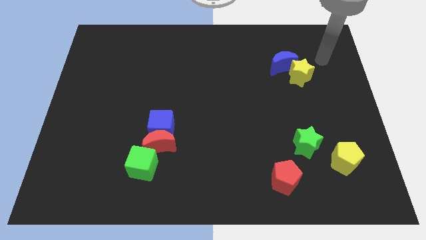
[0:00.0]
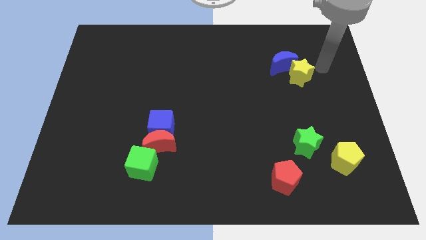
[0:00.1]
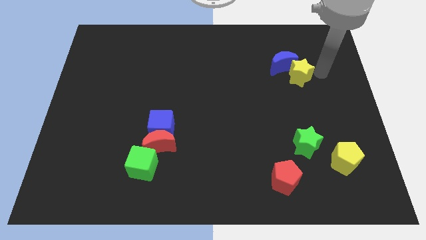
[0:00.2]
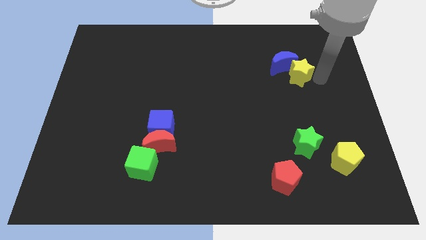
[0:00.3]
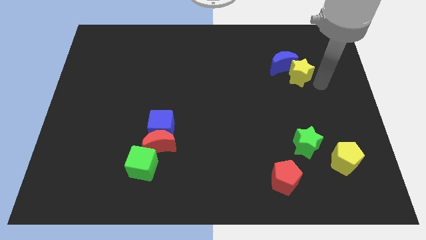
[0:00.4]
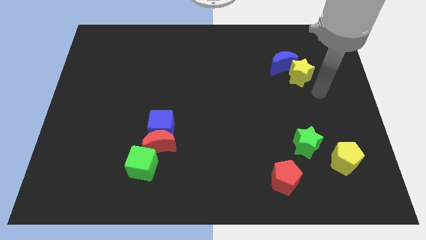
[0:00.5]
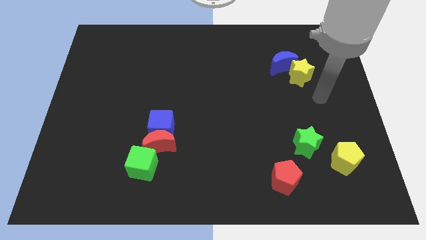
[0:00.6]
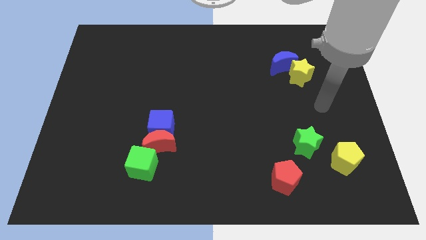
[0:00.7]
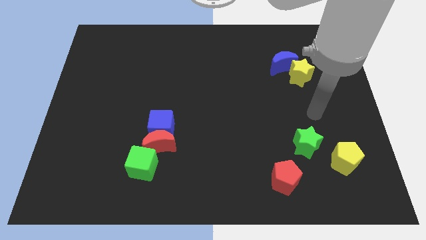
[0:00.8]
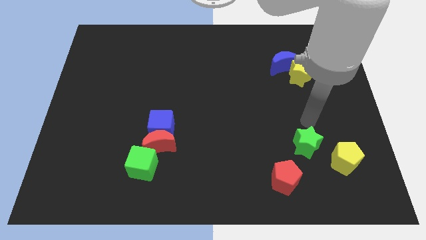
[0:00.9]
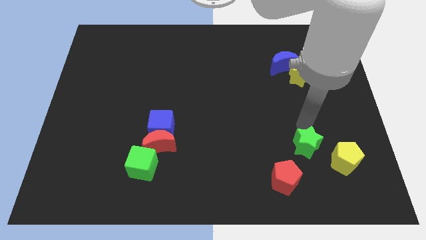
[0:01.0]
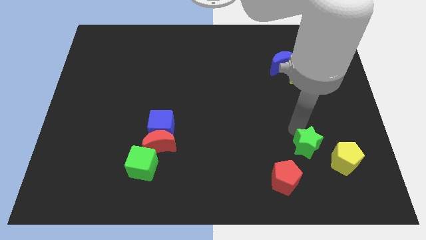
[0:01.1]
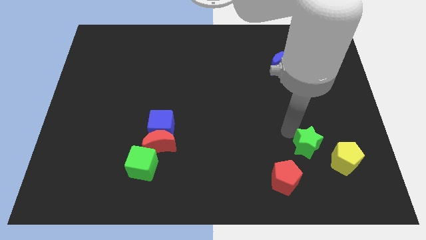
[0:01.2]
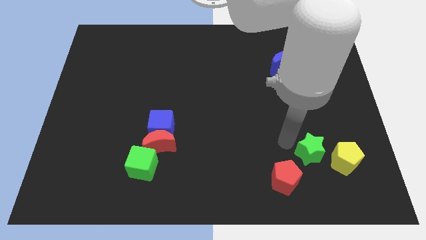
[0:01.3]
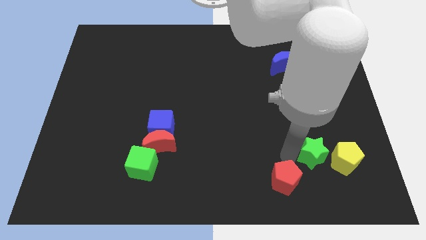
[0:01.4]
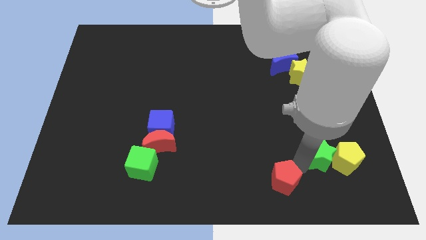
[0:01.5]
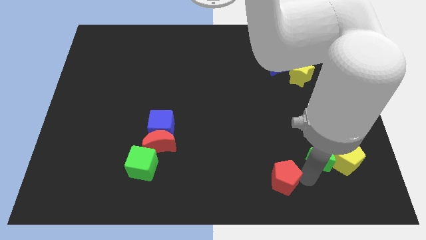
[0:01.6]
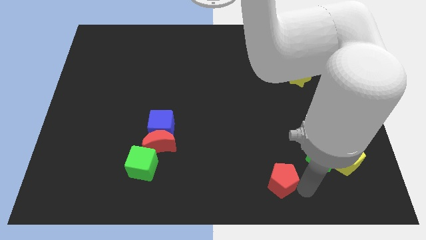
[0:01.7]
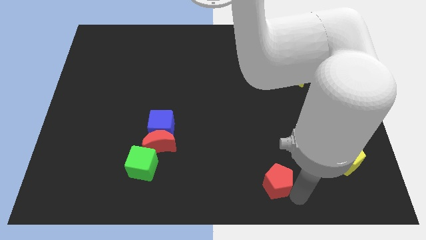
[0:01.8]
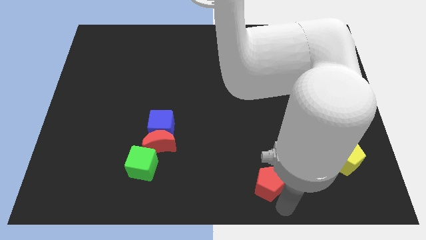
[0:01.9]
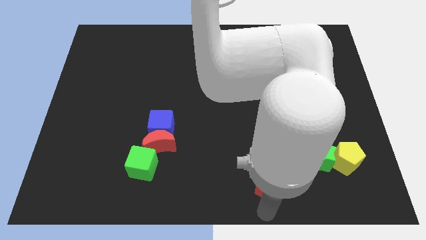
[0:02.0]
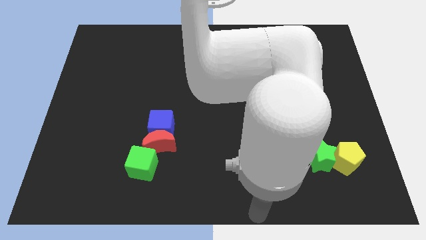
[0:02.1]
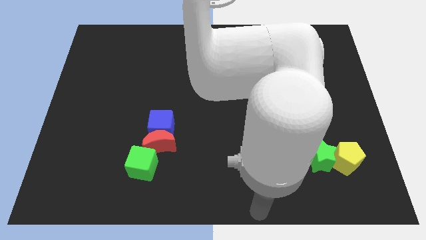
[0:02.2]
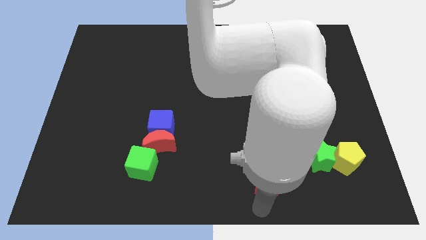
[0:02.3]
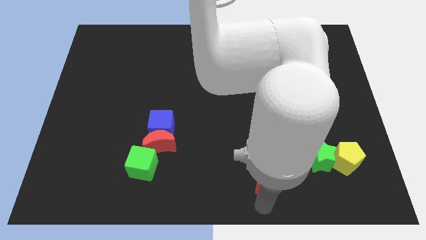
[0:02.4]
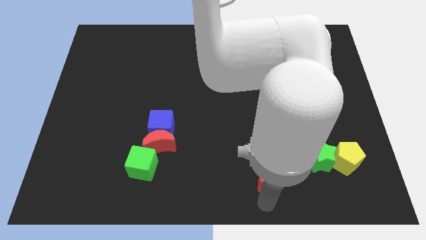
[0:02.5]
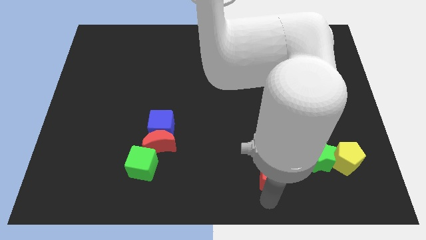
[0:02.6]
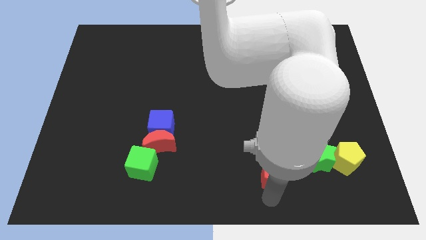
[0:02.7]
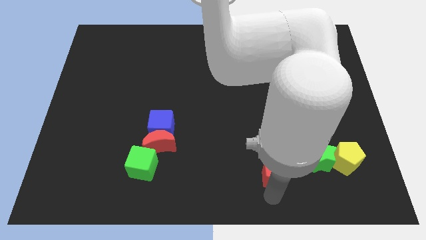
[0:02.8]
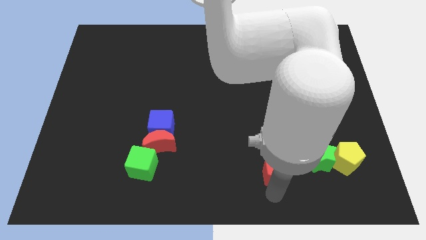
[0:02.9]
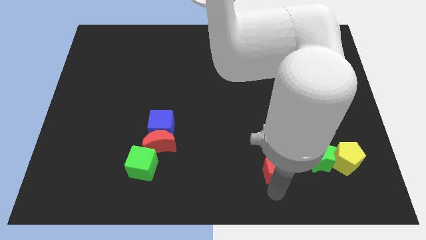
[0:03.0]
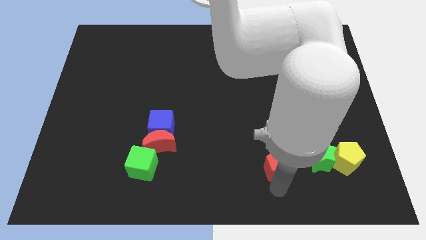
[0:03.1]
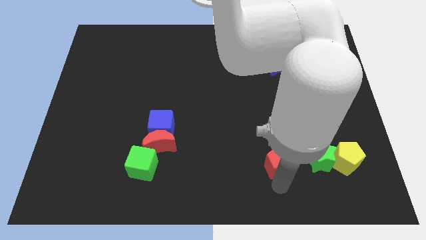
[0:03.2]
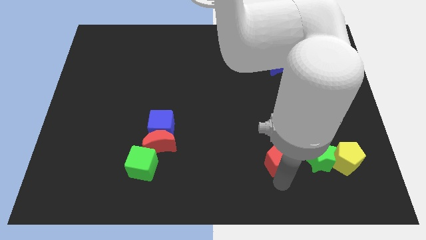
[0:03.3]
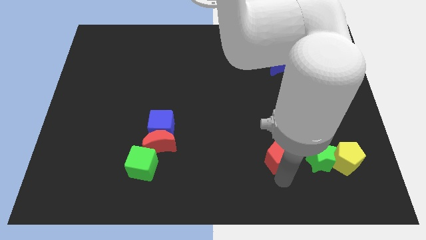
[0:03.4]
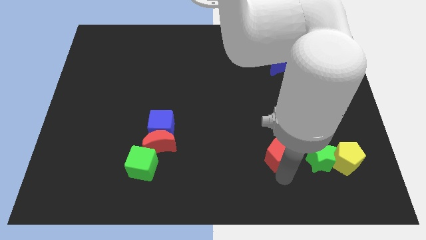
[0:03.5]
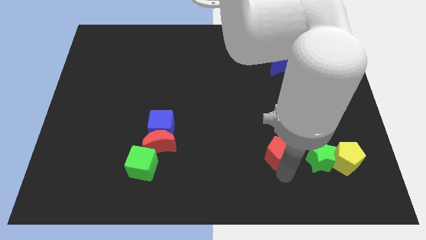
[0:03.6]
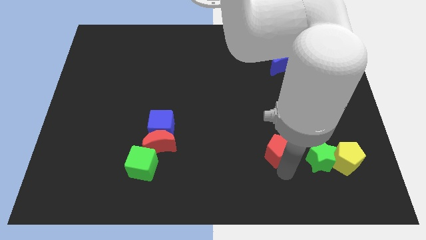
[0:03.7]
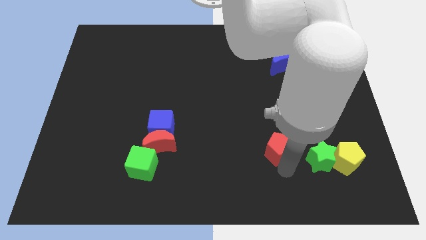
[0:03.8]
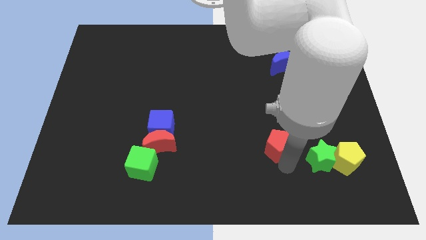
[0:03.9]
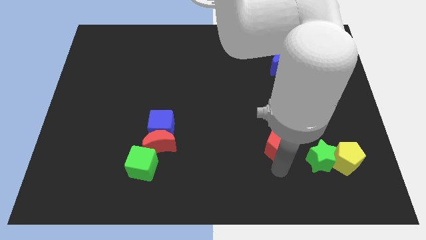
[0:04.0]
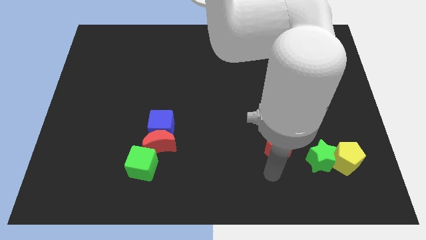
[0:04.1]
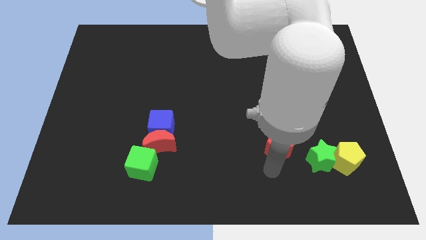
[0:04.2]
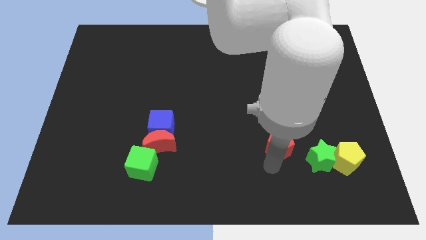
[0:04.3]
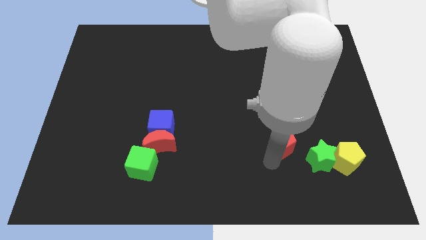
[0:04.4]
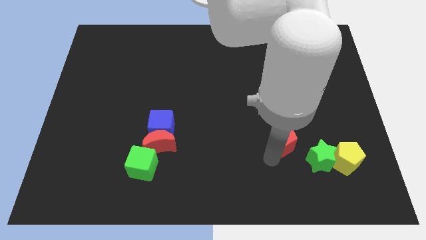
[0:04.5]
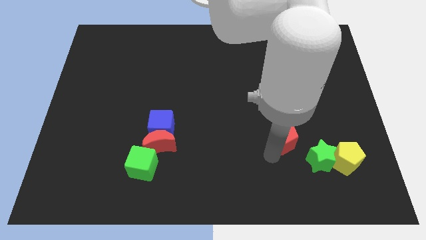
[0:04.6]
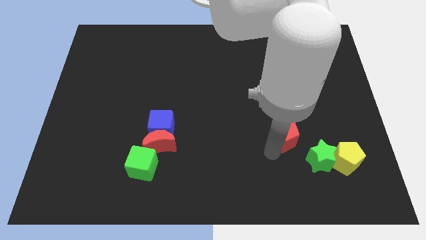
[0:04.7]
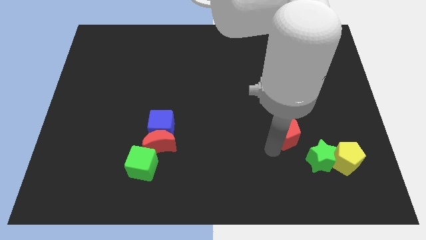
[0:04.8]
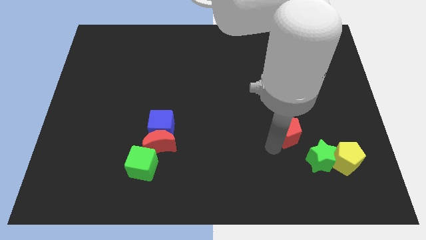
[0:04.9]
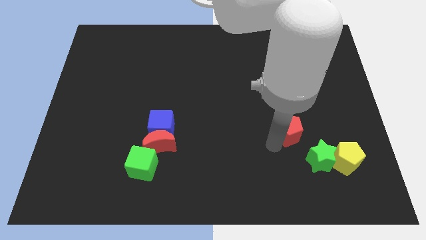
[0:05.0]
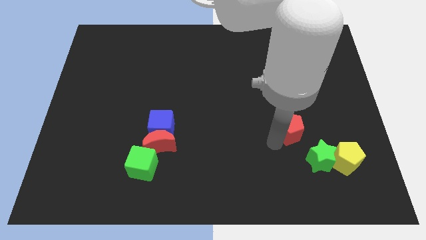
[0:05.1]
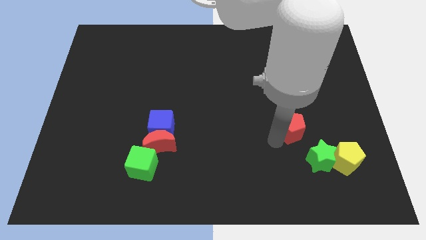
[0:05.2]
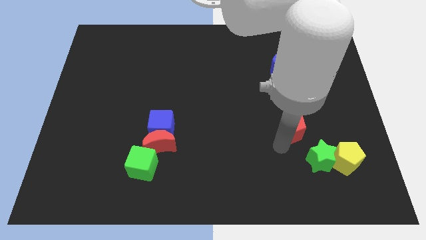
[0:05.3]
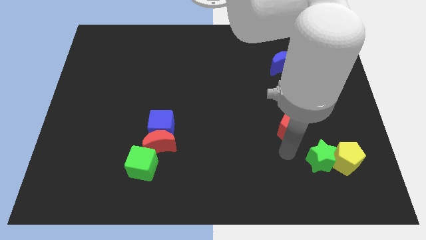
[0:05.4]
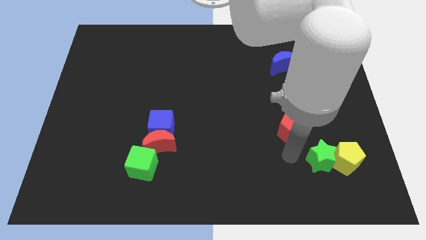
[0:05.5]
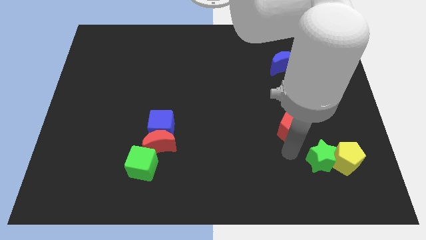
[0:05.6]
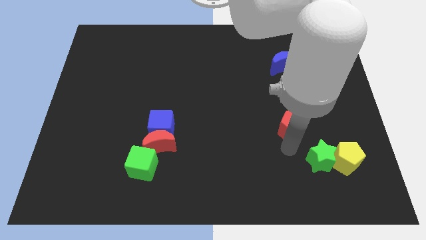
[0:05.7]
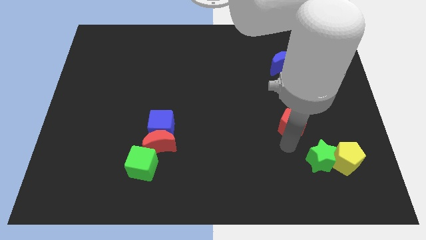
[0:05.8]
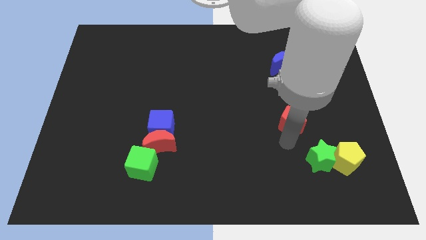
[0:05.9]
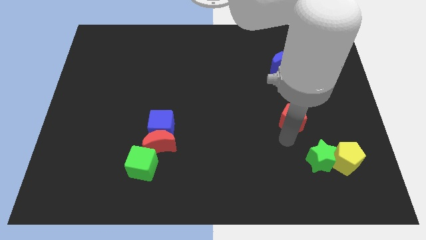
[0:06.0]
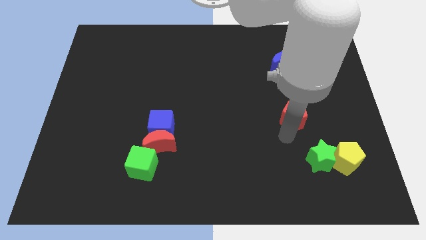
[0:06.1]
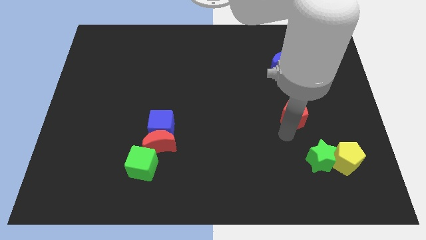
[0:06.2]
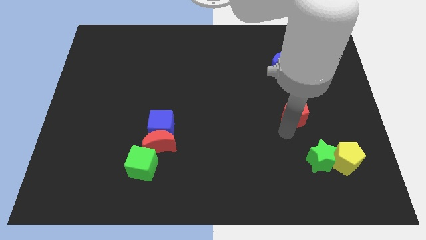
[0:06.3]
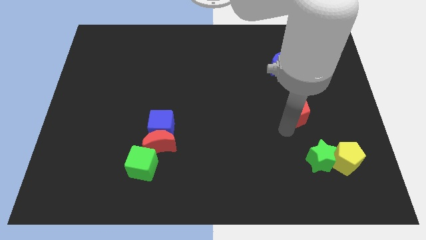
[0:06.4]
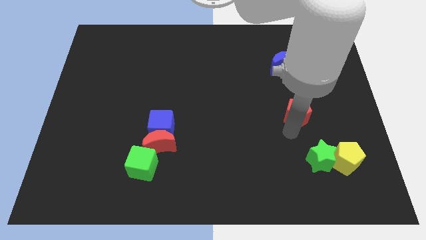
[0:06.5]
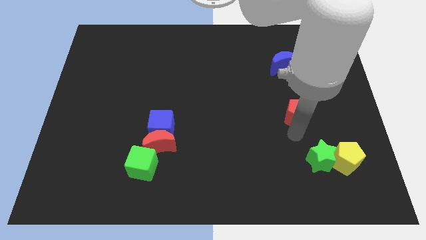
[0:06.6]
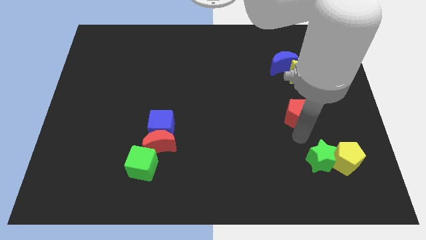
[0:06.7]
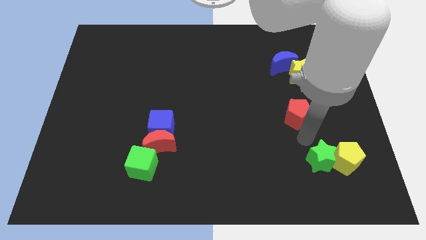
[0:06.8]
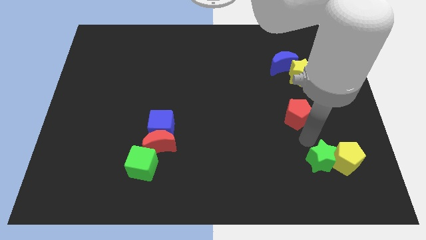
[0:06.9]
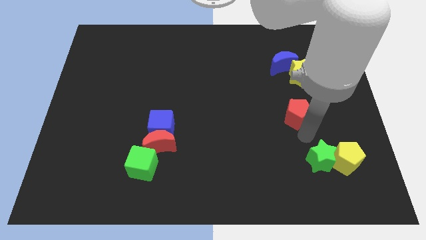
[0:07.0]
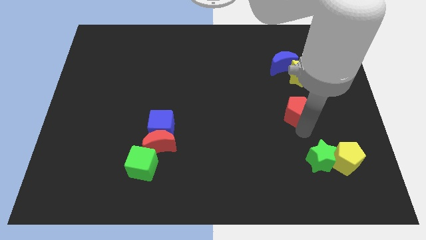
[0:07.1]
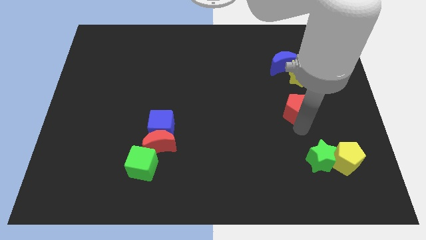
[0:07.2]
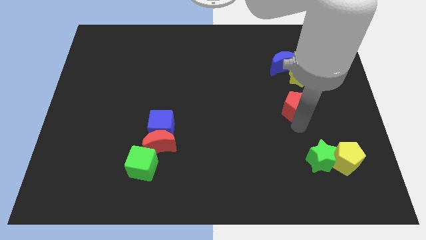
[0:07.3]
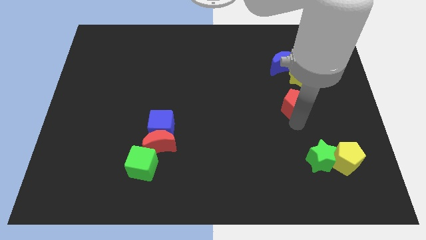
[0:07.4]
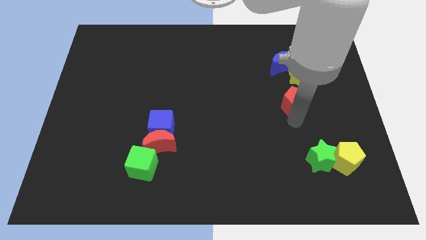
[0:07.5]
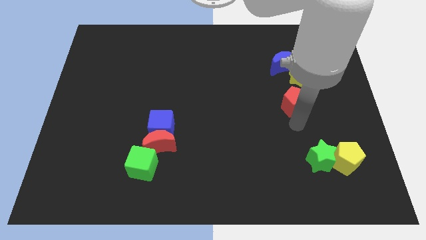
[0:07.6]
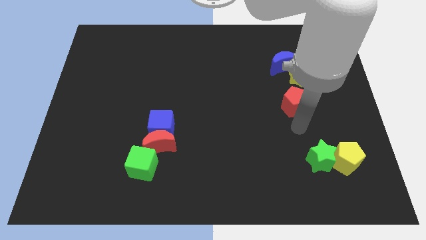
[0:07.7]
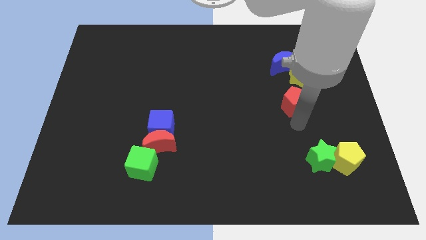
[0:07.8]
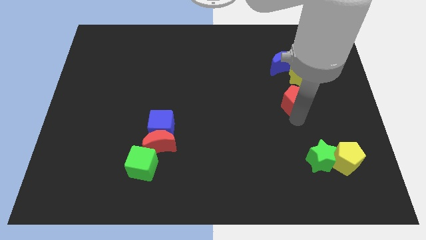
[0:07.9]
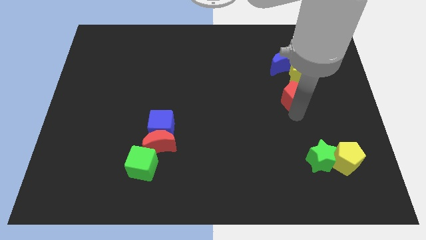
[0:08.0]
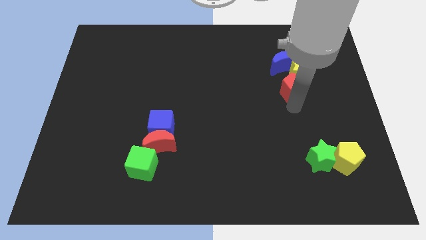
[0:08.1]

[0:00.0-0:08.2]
push the red pentagon close to the yellow star
